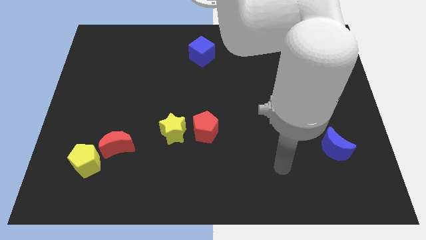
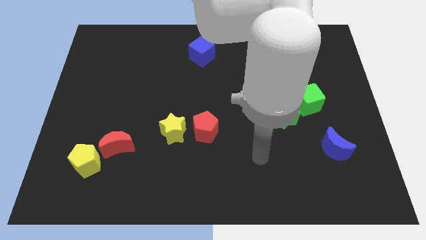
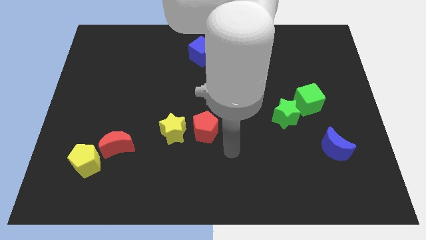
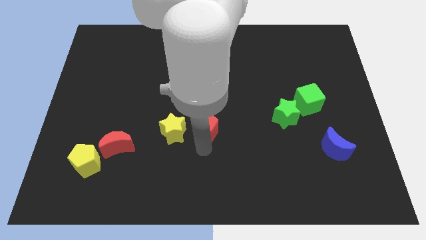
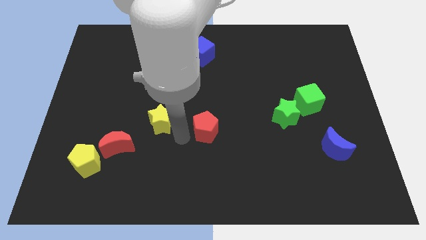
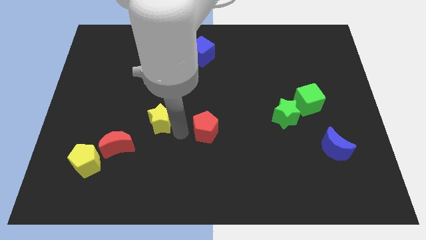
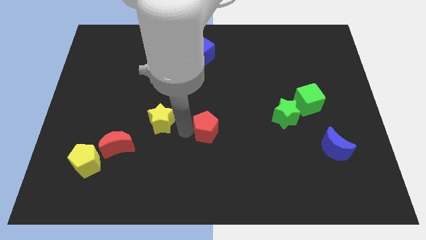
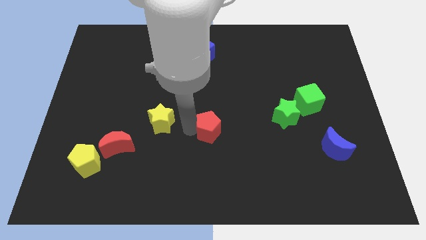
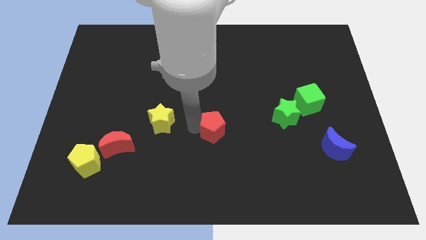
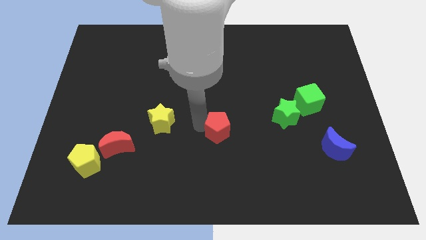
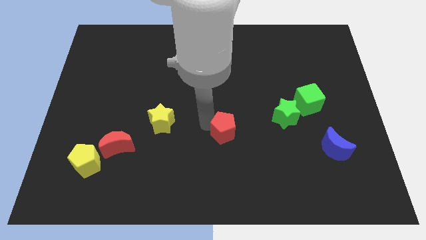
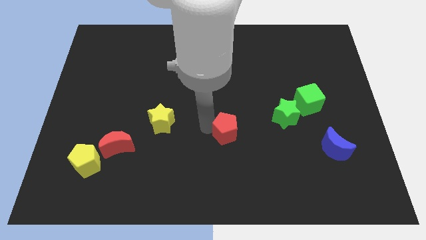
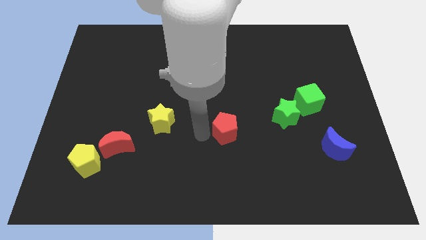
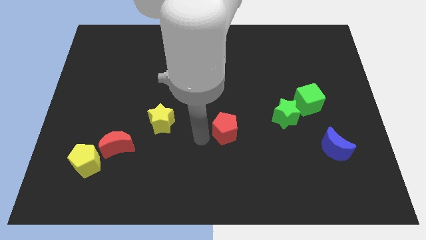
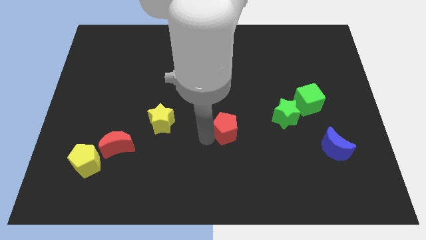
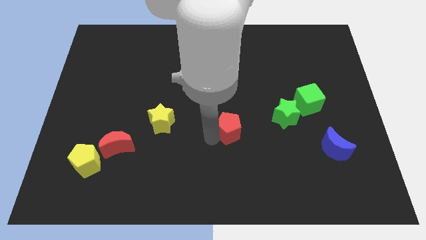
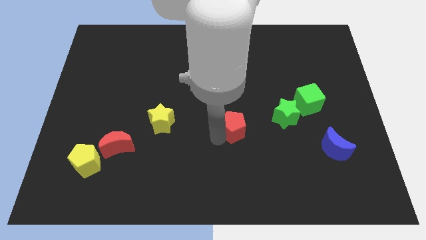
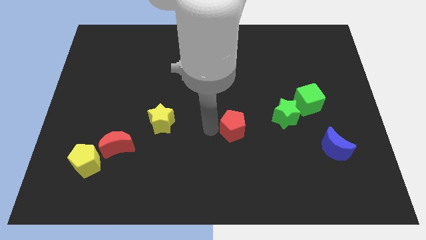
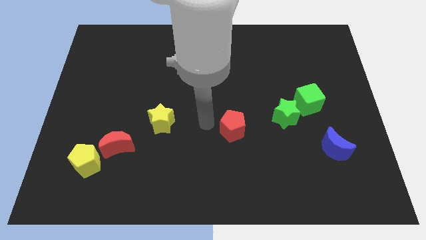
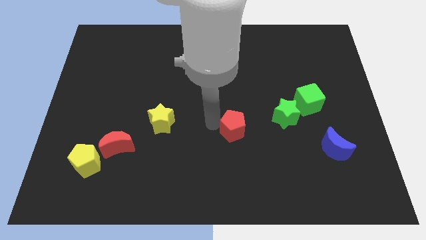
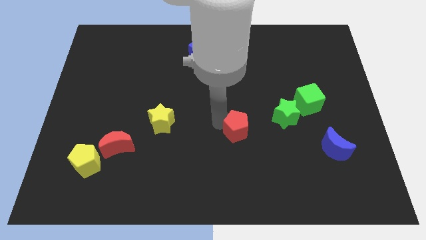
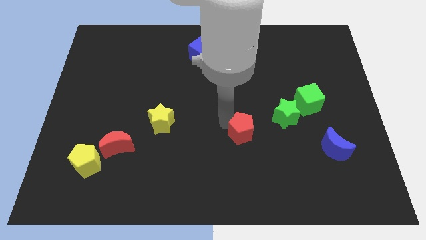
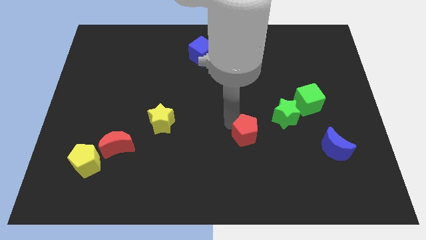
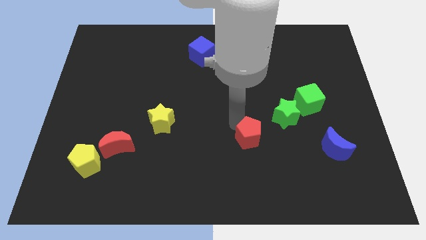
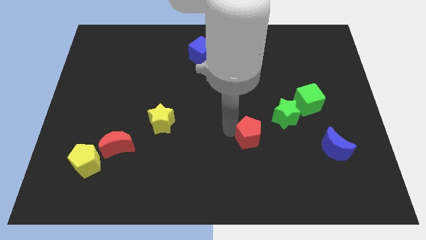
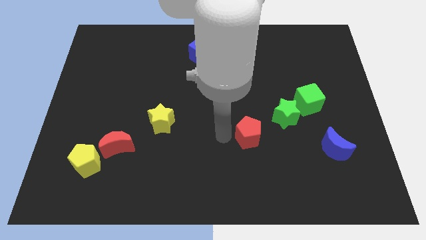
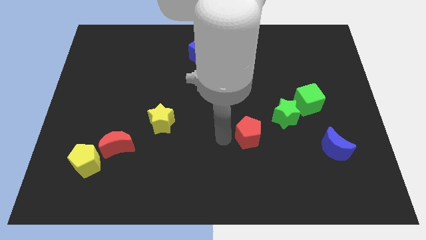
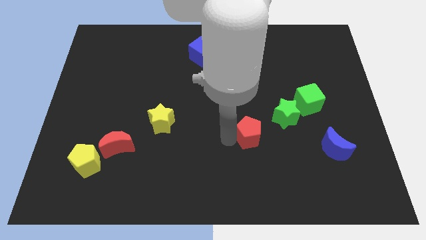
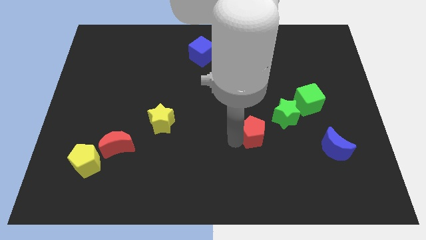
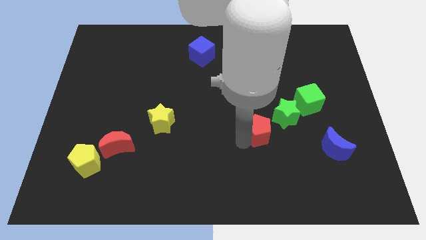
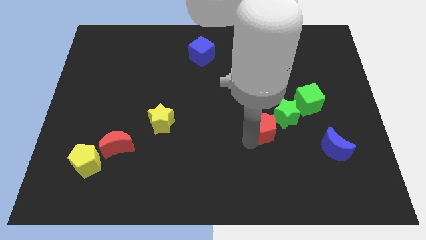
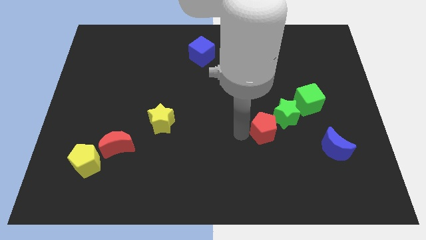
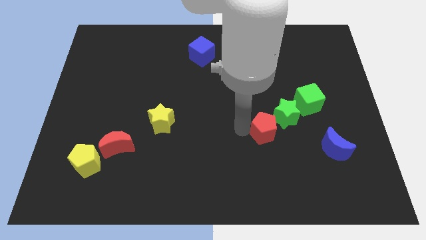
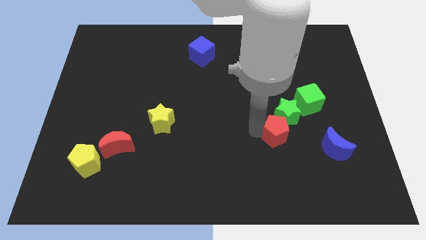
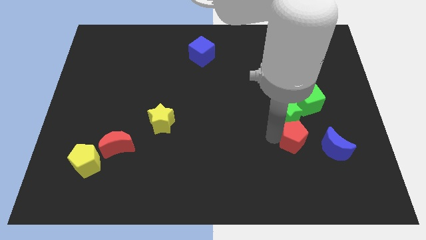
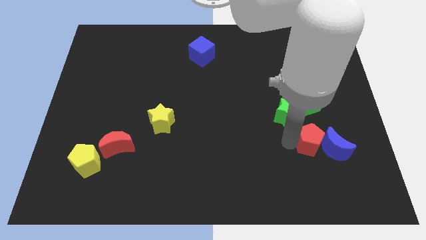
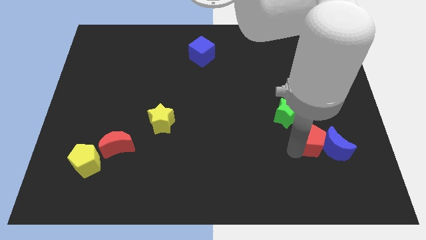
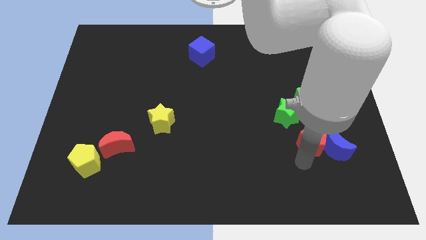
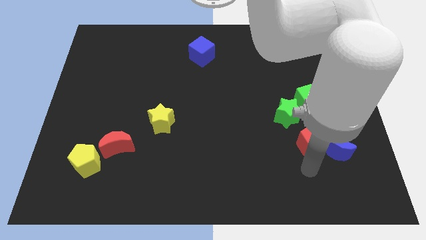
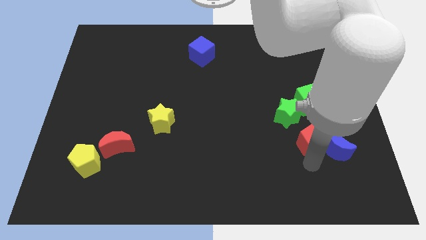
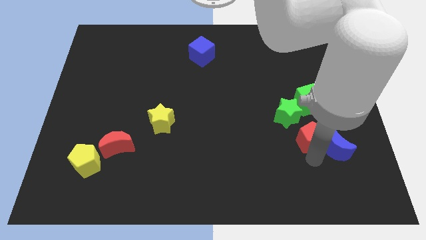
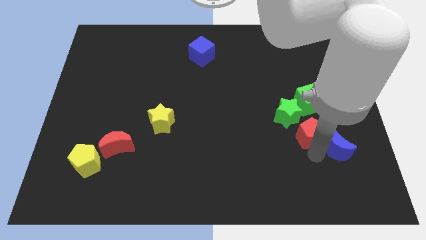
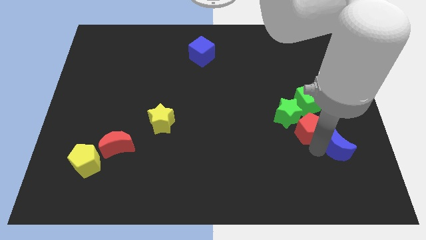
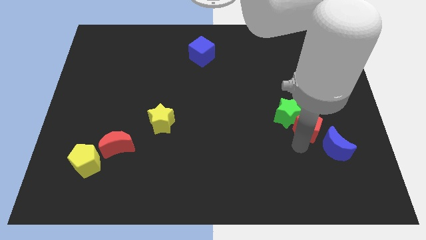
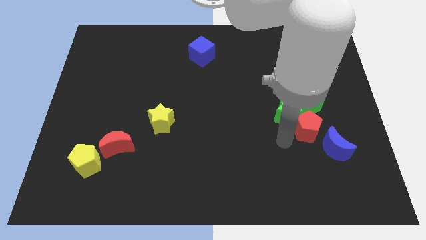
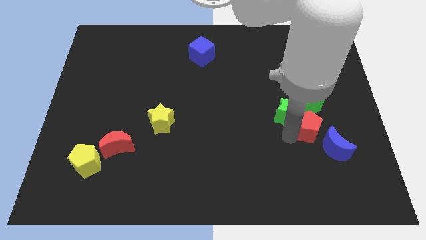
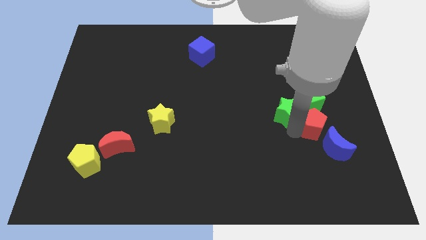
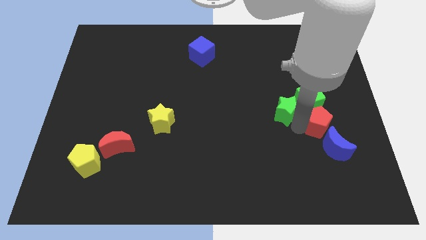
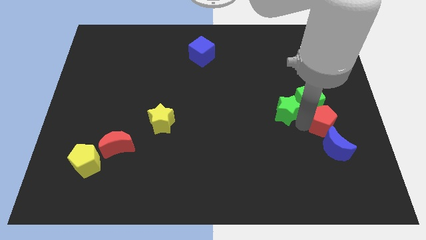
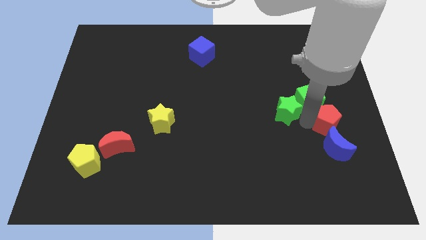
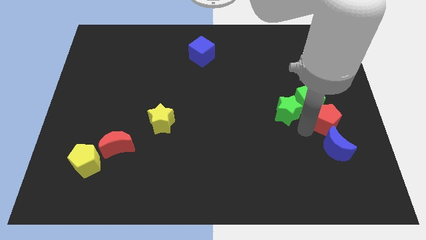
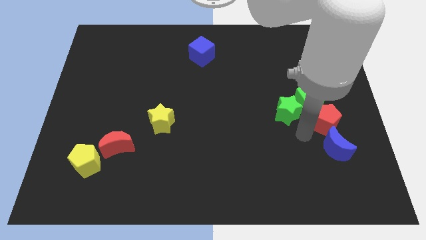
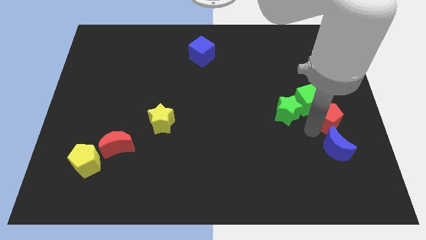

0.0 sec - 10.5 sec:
put the red pentagon to the right side of the board
